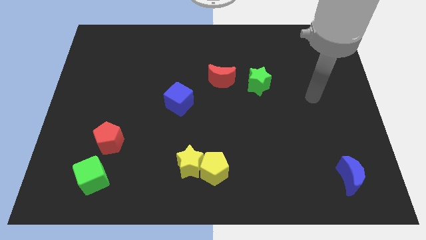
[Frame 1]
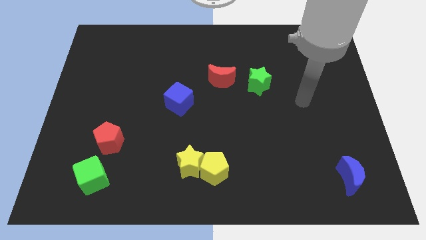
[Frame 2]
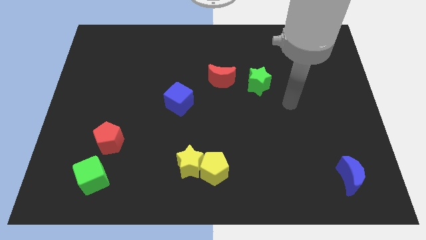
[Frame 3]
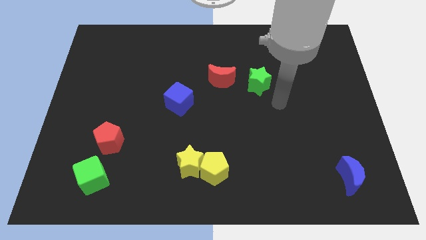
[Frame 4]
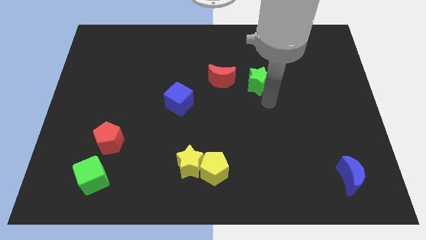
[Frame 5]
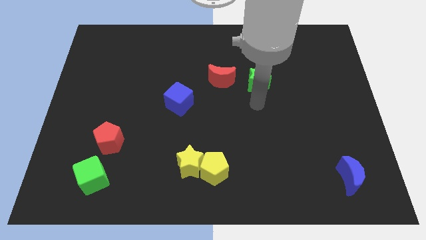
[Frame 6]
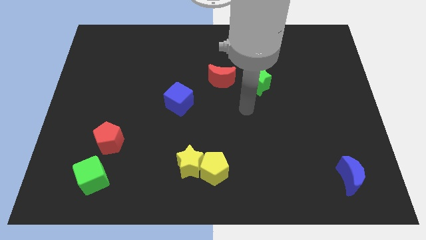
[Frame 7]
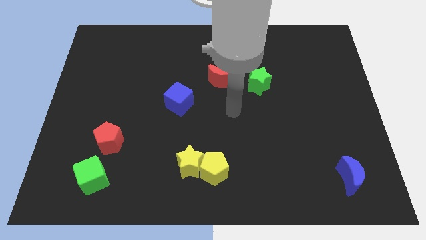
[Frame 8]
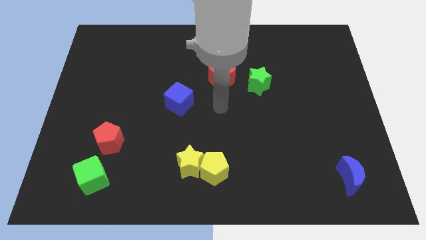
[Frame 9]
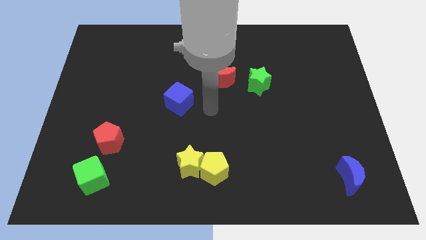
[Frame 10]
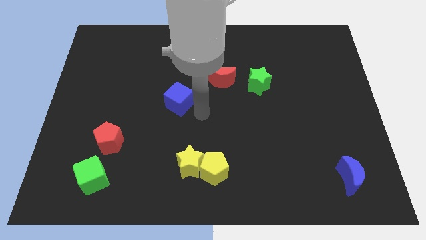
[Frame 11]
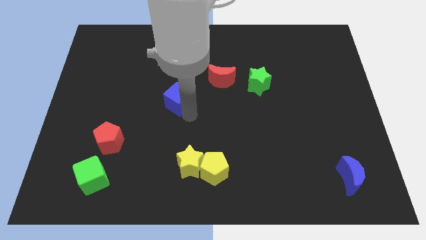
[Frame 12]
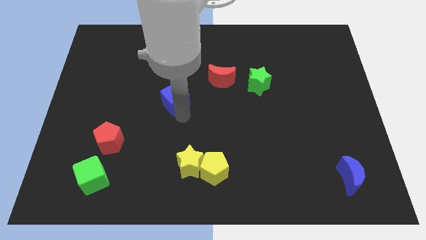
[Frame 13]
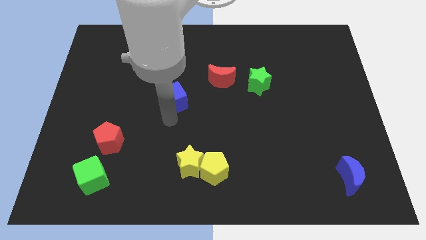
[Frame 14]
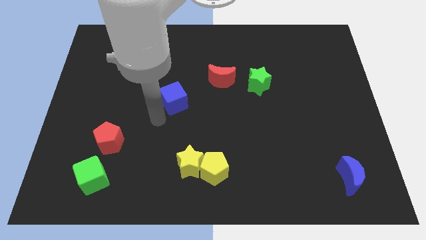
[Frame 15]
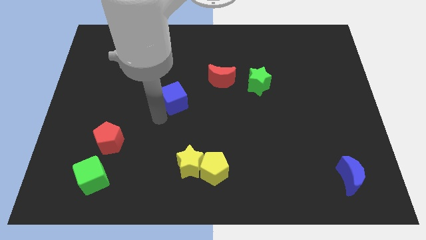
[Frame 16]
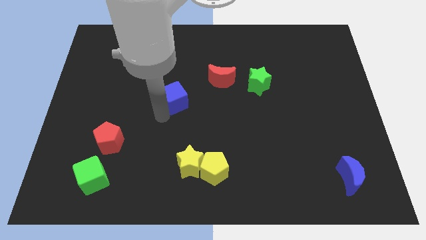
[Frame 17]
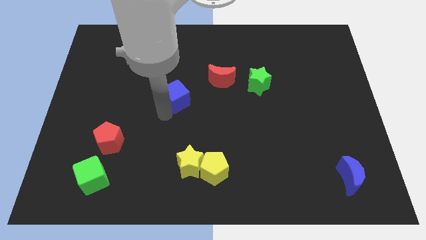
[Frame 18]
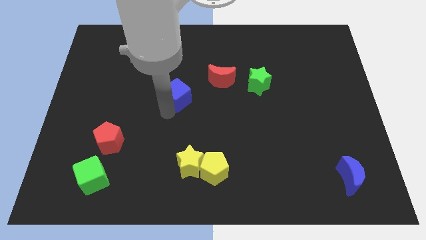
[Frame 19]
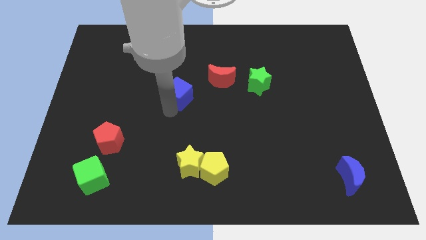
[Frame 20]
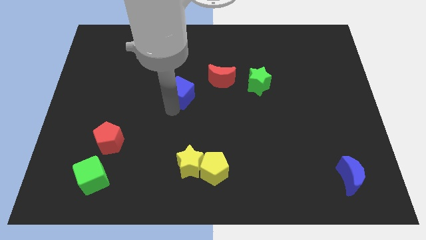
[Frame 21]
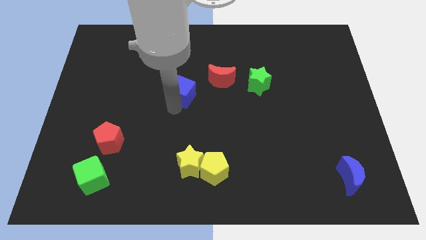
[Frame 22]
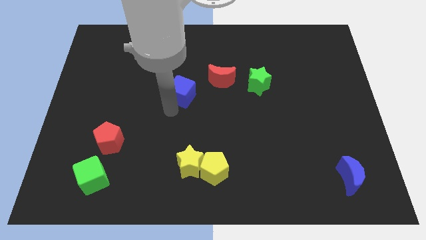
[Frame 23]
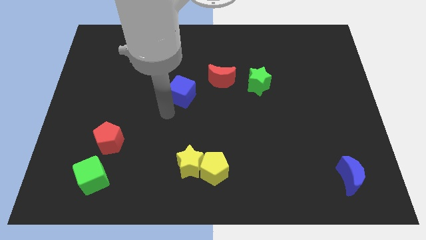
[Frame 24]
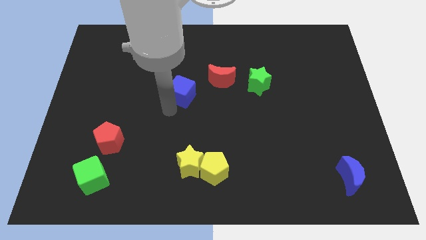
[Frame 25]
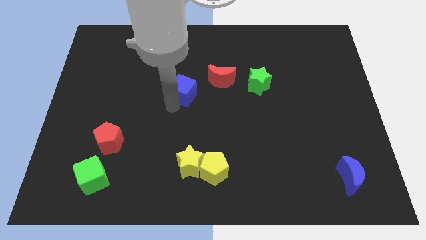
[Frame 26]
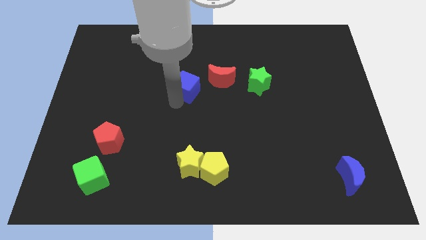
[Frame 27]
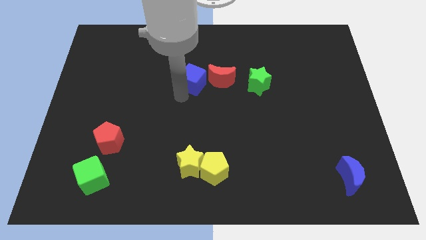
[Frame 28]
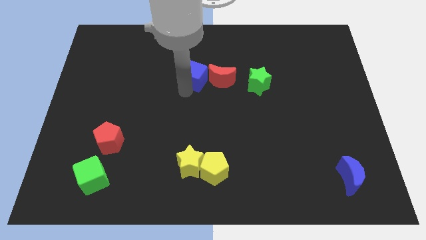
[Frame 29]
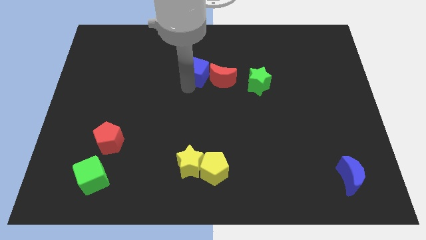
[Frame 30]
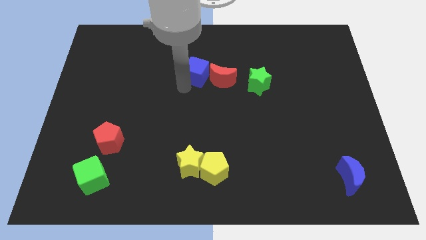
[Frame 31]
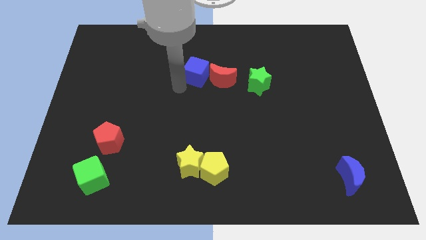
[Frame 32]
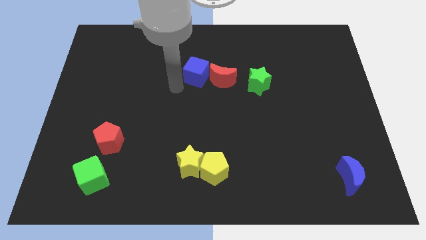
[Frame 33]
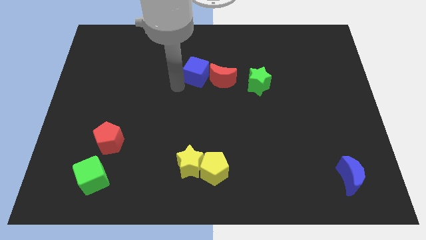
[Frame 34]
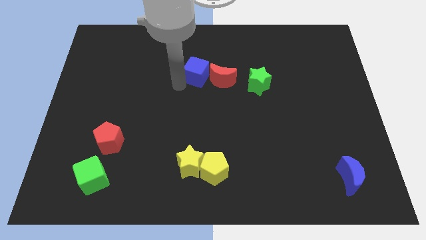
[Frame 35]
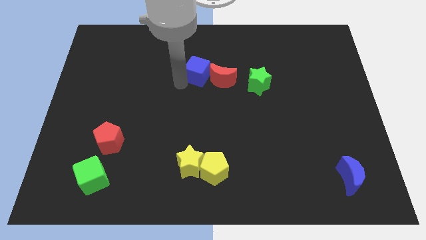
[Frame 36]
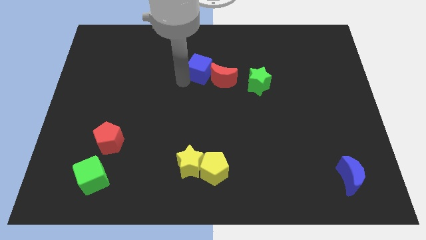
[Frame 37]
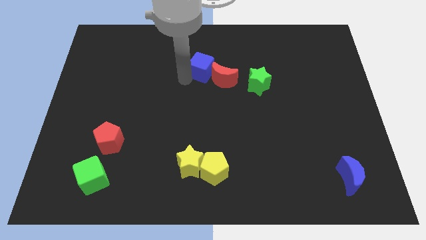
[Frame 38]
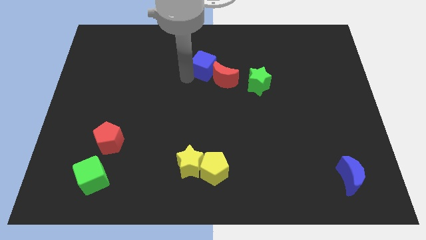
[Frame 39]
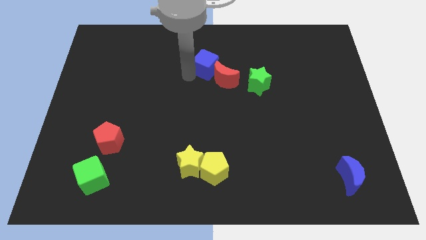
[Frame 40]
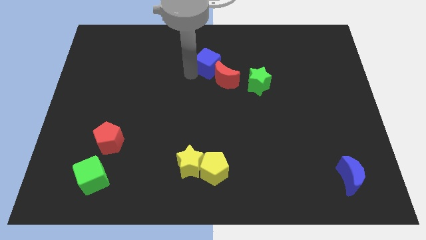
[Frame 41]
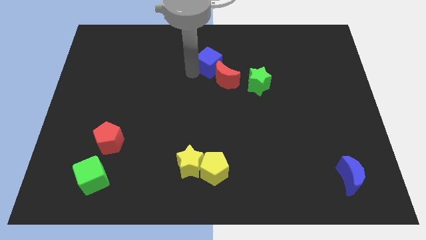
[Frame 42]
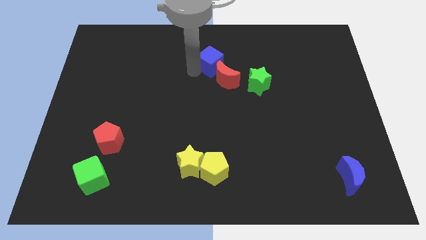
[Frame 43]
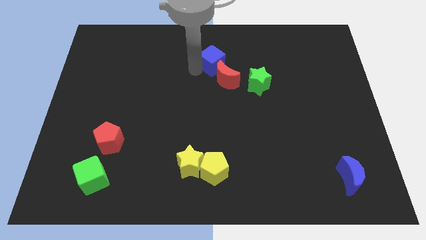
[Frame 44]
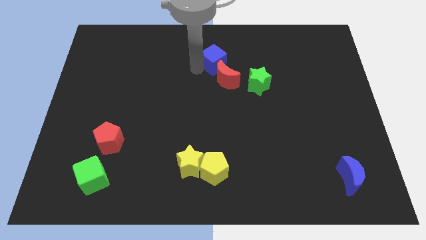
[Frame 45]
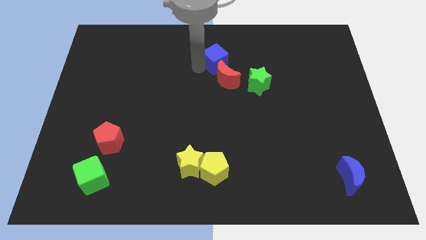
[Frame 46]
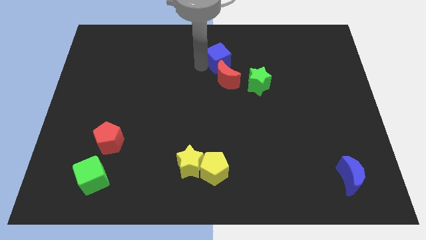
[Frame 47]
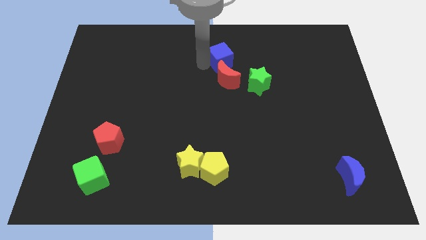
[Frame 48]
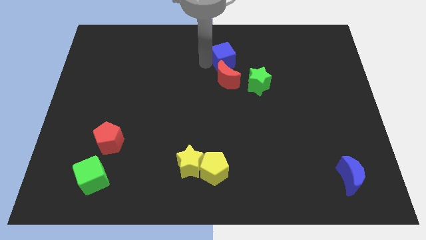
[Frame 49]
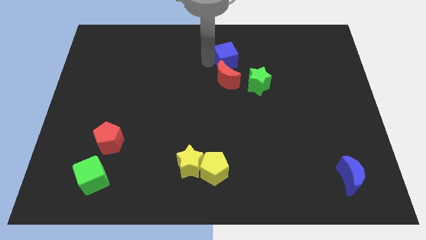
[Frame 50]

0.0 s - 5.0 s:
put the blue cube to the top right side of the red moon

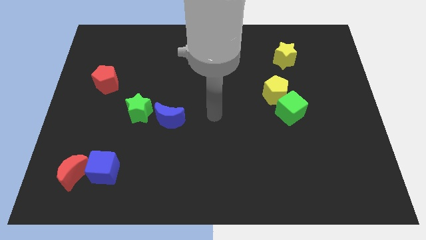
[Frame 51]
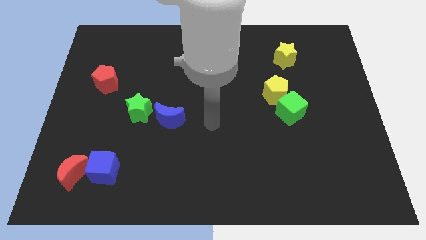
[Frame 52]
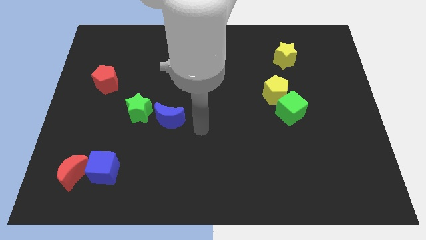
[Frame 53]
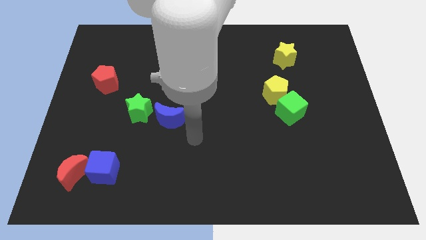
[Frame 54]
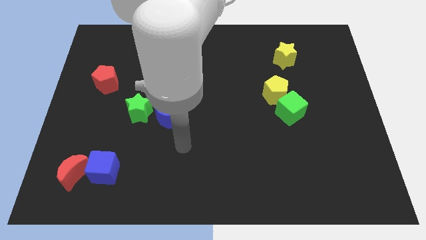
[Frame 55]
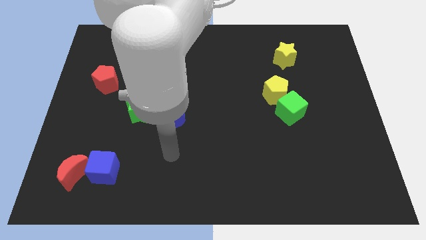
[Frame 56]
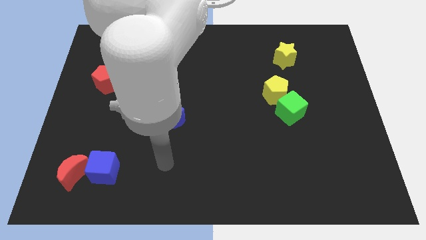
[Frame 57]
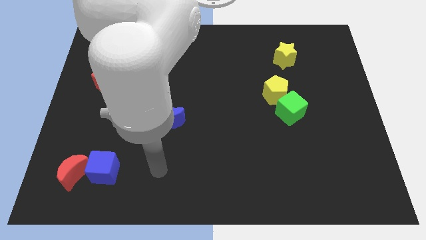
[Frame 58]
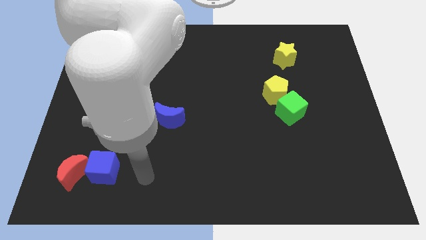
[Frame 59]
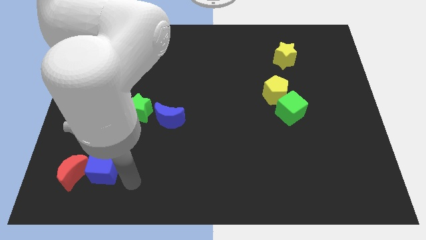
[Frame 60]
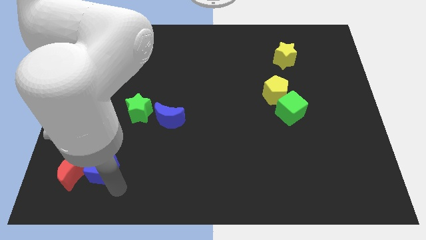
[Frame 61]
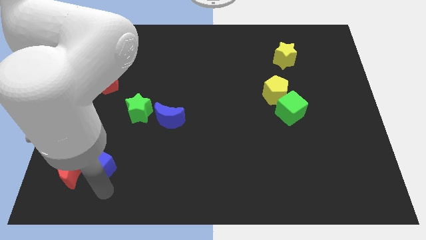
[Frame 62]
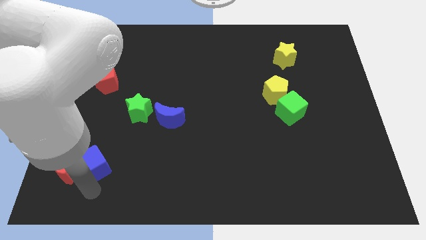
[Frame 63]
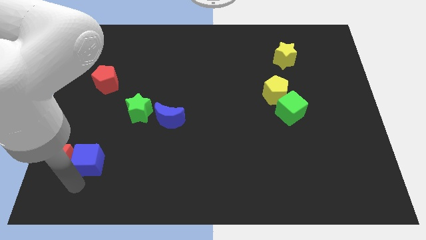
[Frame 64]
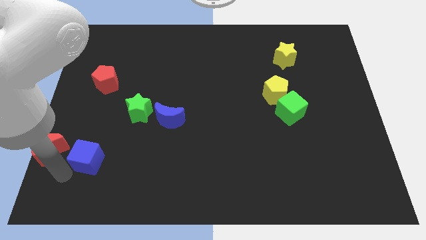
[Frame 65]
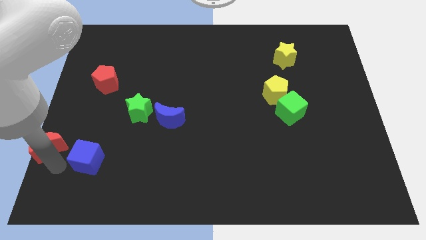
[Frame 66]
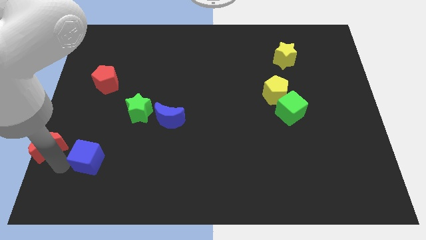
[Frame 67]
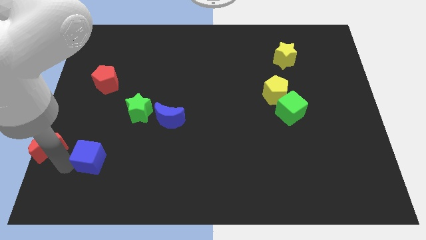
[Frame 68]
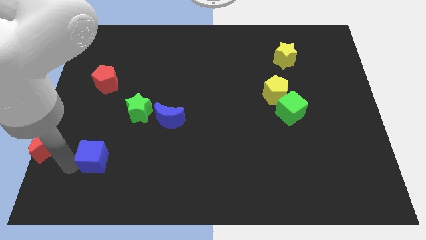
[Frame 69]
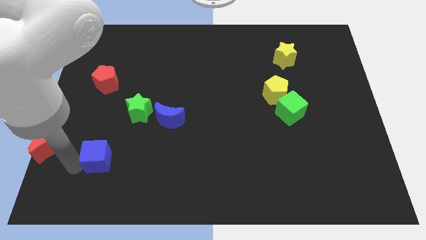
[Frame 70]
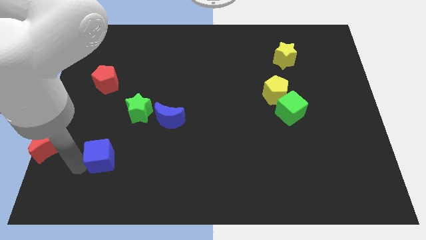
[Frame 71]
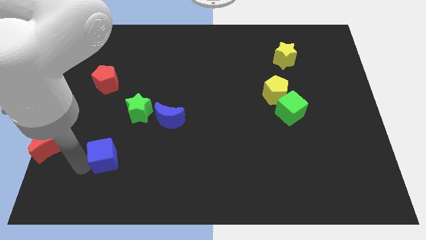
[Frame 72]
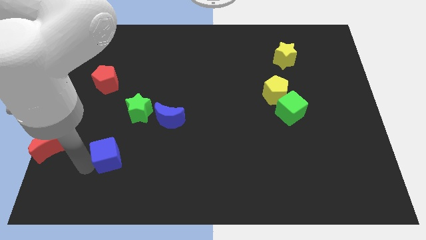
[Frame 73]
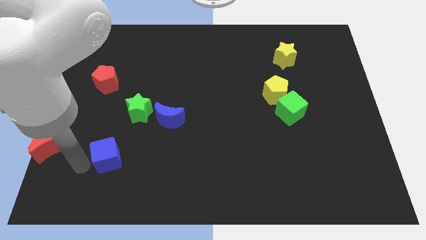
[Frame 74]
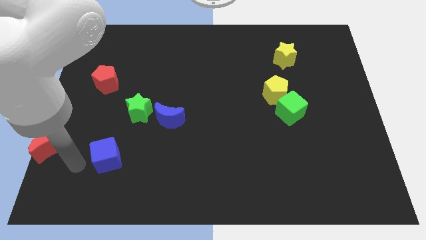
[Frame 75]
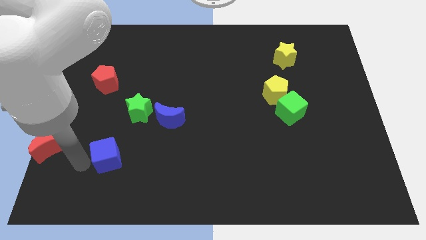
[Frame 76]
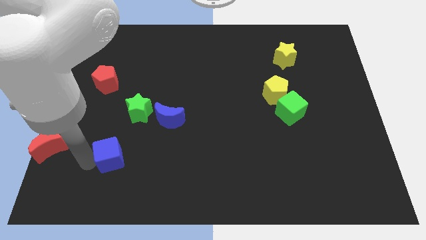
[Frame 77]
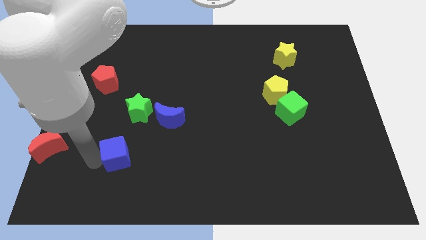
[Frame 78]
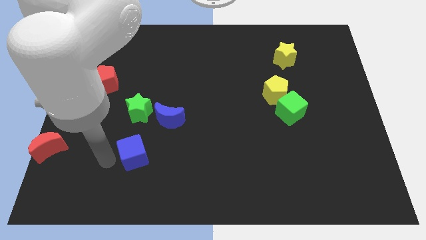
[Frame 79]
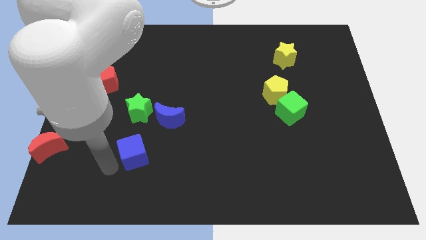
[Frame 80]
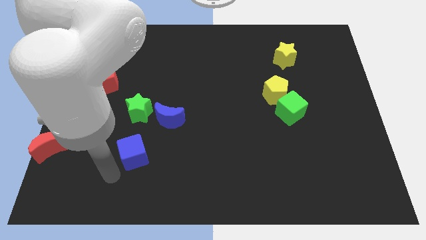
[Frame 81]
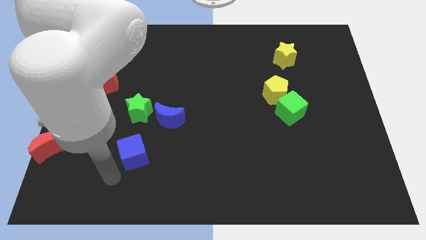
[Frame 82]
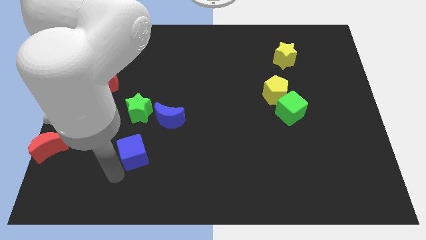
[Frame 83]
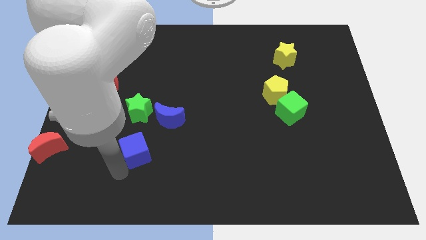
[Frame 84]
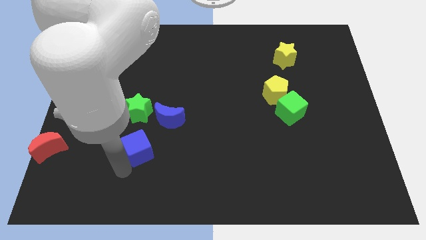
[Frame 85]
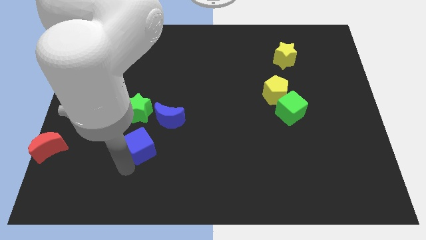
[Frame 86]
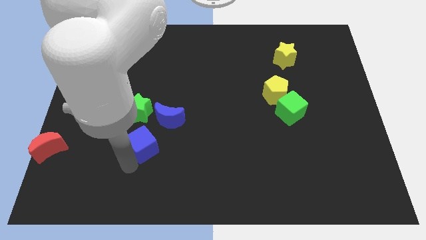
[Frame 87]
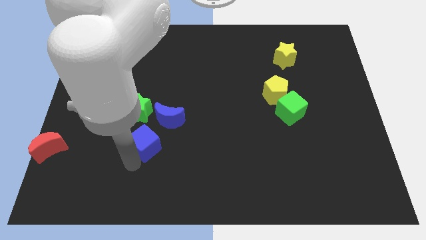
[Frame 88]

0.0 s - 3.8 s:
slide the blue cube to the bottom right side of the green star
